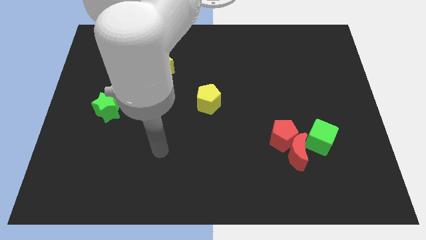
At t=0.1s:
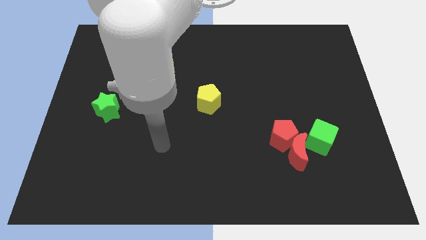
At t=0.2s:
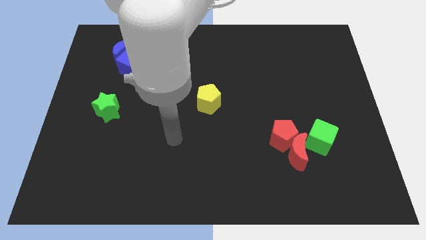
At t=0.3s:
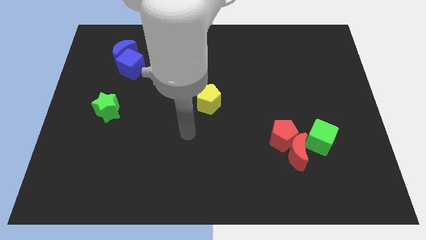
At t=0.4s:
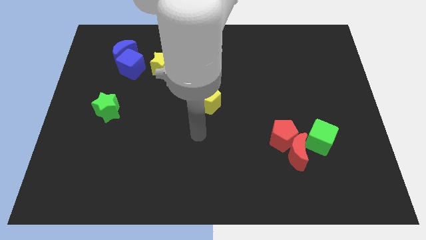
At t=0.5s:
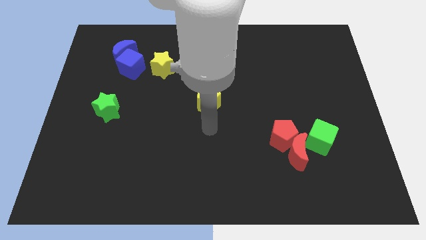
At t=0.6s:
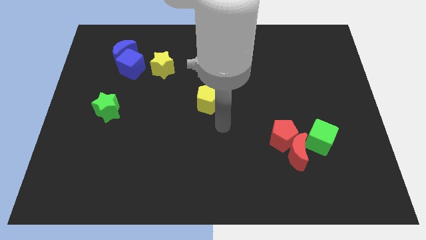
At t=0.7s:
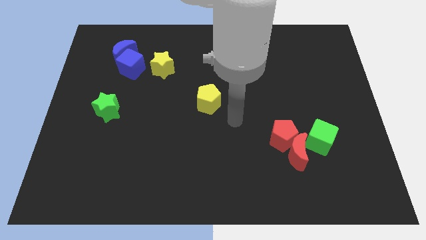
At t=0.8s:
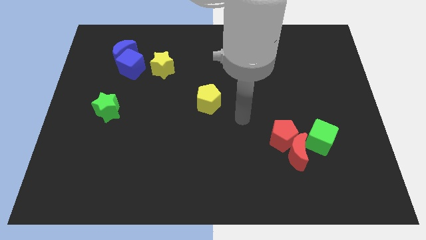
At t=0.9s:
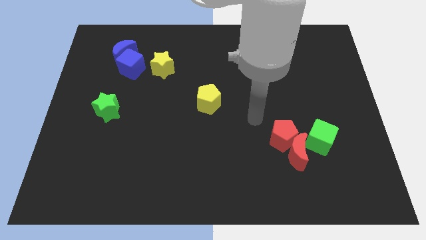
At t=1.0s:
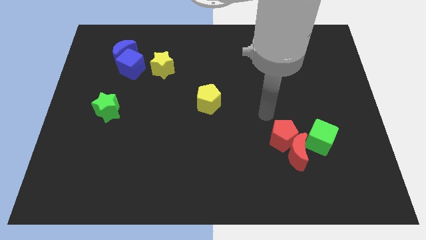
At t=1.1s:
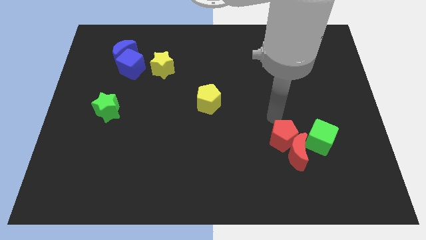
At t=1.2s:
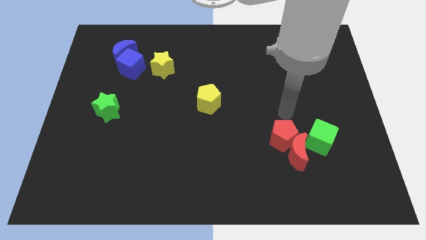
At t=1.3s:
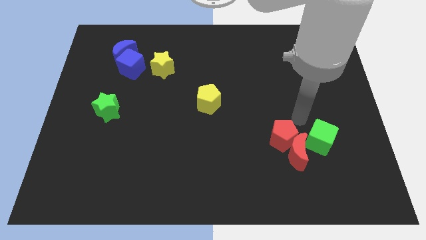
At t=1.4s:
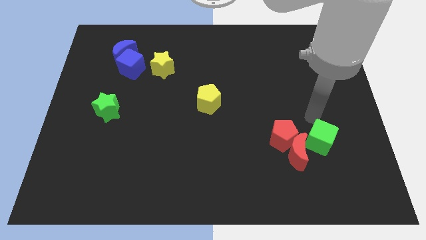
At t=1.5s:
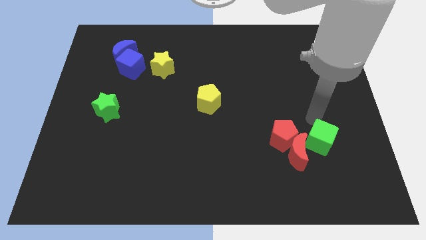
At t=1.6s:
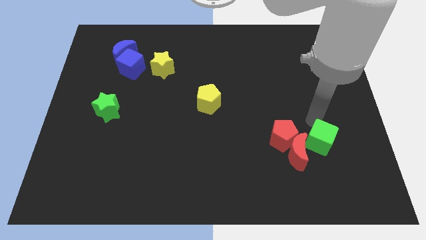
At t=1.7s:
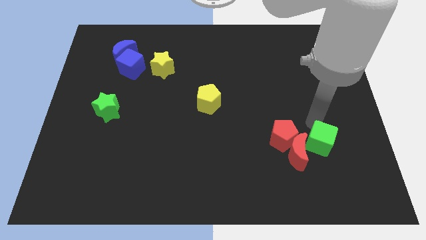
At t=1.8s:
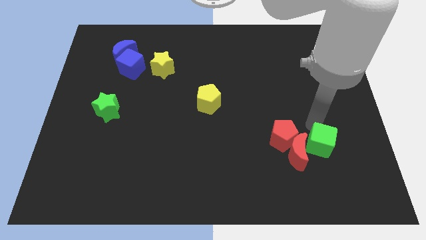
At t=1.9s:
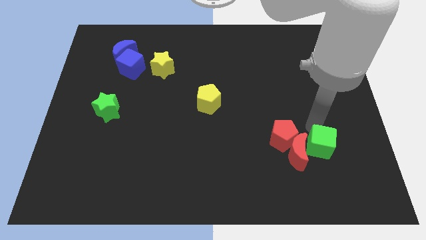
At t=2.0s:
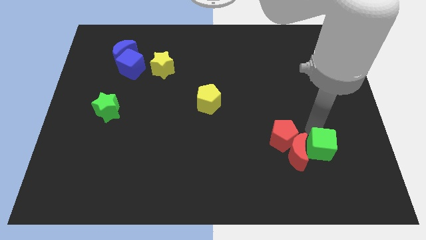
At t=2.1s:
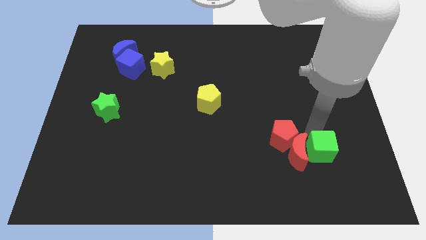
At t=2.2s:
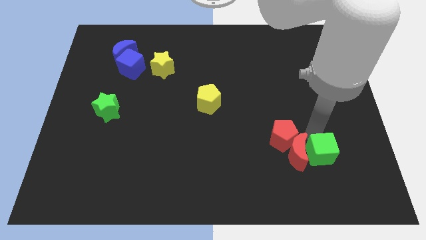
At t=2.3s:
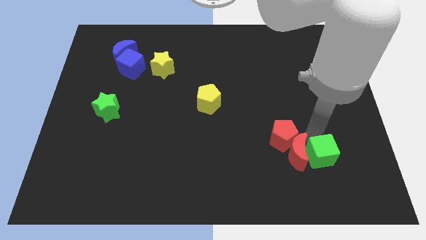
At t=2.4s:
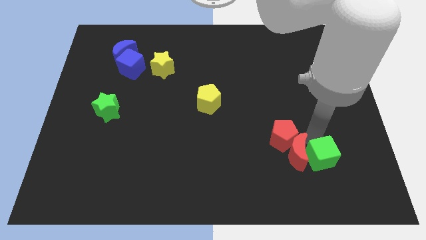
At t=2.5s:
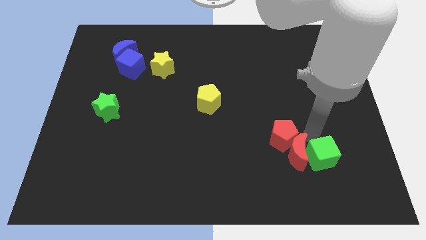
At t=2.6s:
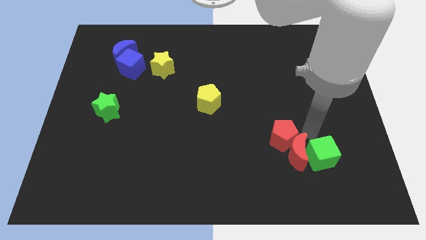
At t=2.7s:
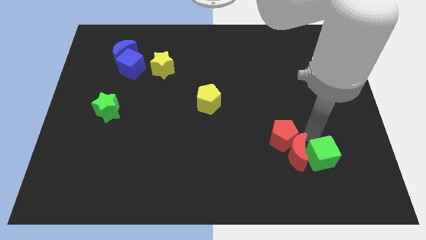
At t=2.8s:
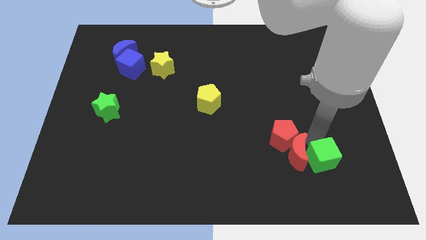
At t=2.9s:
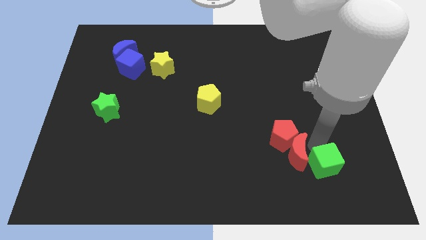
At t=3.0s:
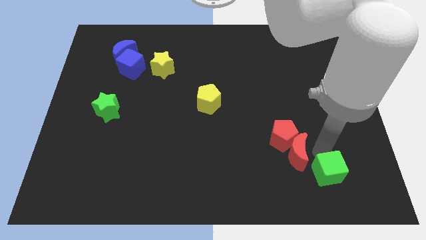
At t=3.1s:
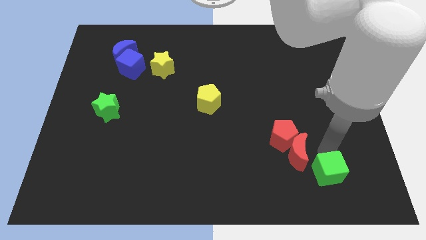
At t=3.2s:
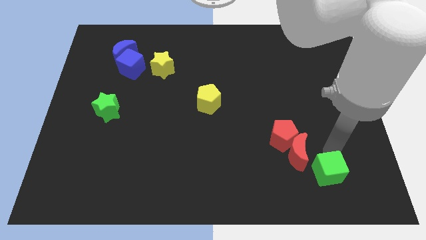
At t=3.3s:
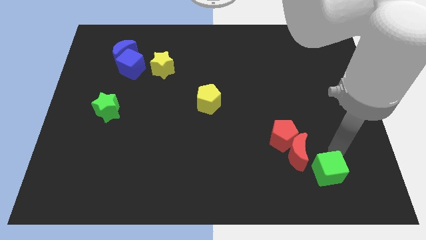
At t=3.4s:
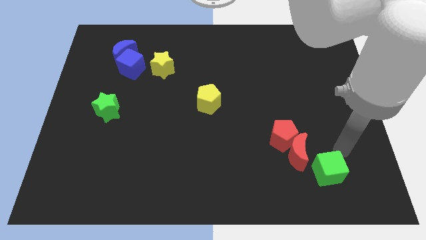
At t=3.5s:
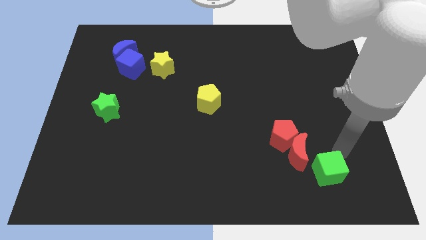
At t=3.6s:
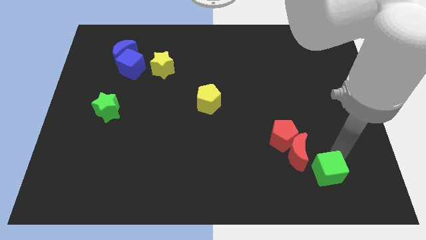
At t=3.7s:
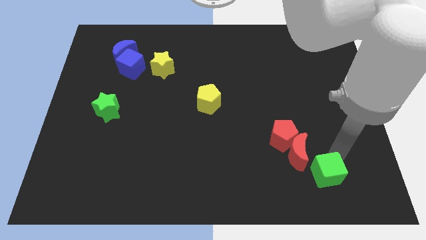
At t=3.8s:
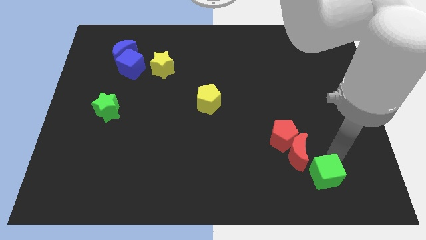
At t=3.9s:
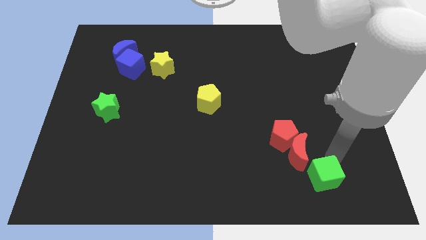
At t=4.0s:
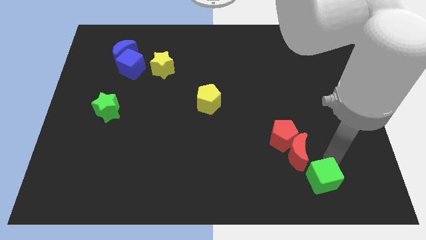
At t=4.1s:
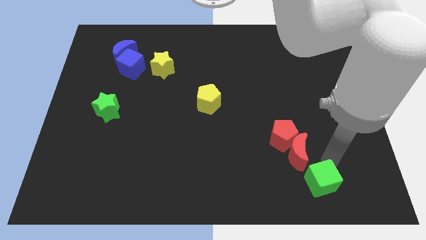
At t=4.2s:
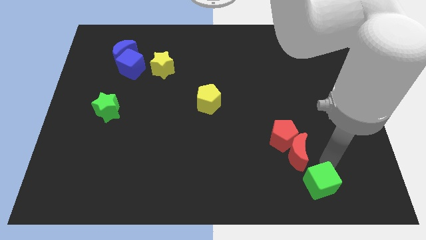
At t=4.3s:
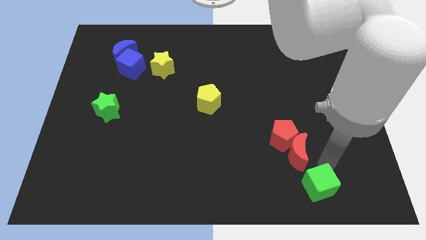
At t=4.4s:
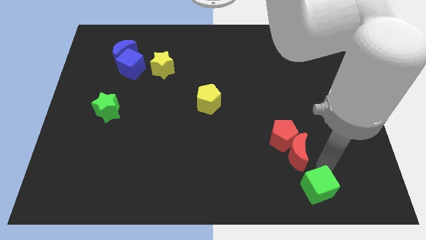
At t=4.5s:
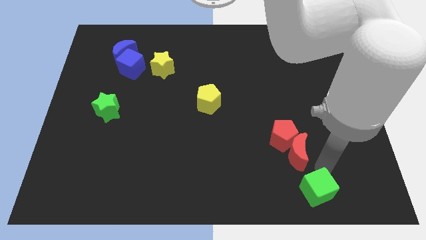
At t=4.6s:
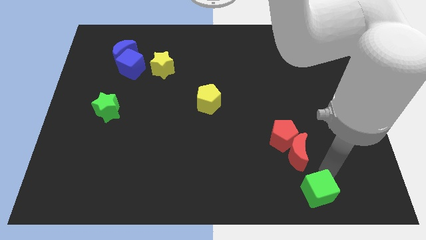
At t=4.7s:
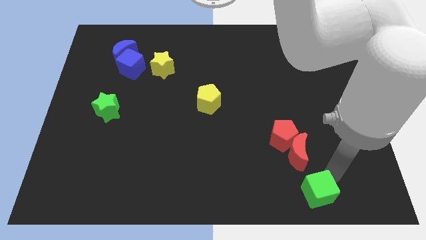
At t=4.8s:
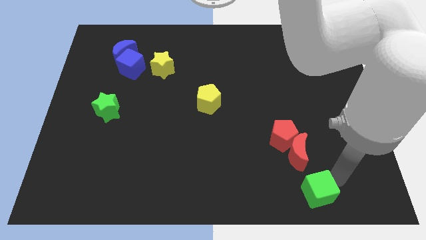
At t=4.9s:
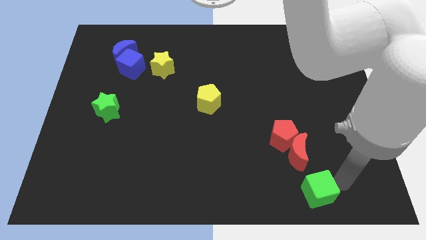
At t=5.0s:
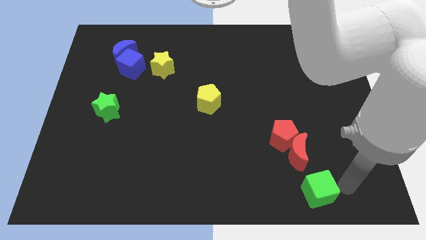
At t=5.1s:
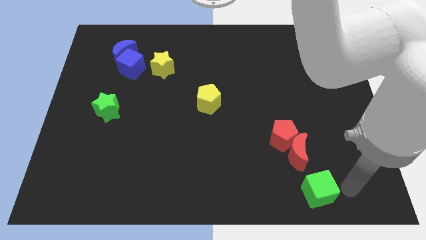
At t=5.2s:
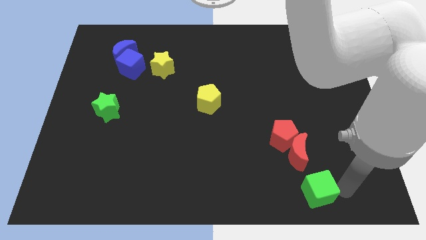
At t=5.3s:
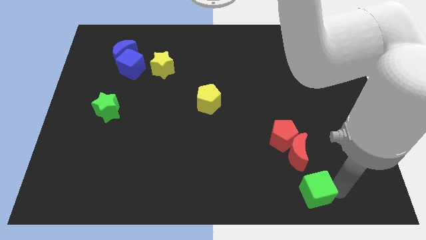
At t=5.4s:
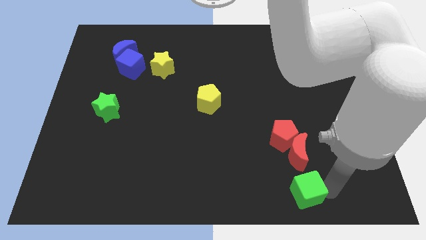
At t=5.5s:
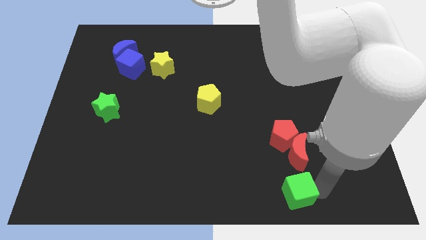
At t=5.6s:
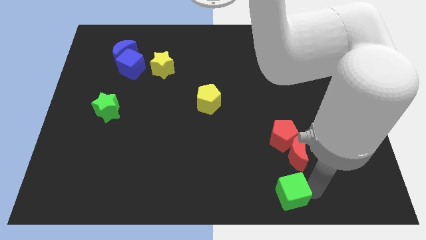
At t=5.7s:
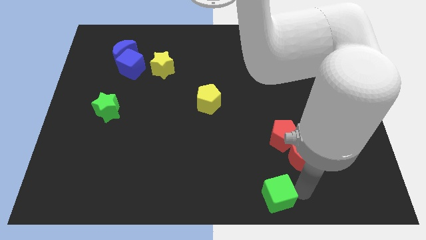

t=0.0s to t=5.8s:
put the green cube to the bottom side

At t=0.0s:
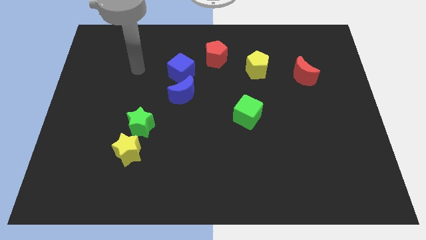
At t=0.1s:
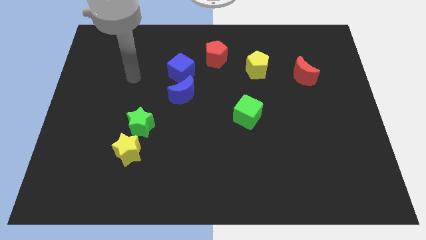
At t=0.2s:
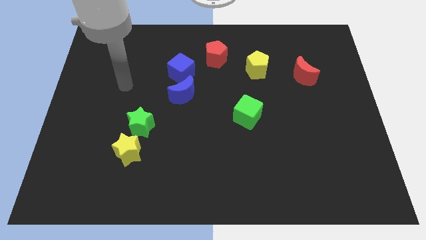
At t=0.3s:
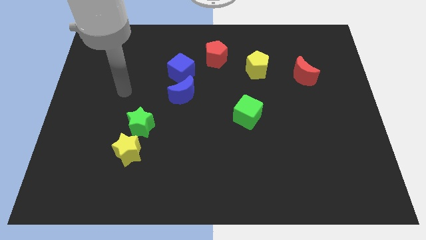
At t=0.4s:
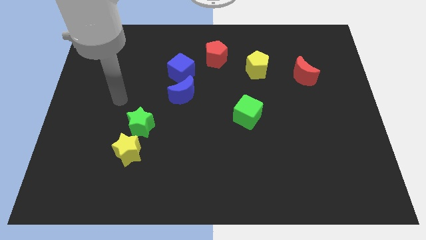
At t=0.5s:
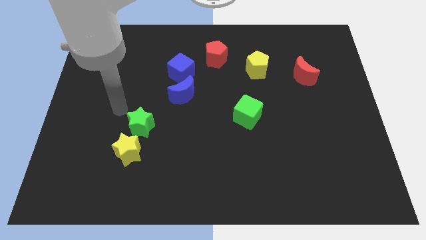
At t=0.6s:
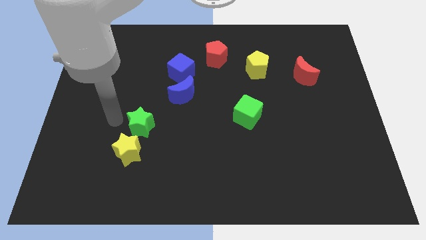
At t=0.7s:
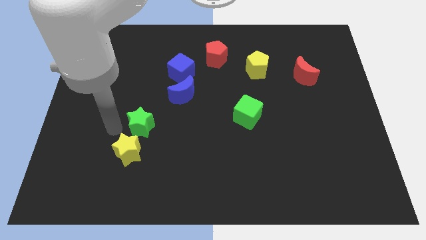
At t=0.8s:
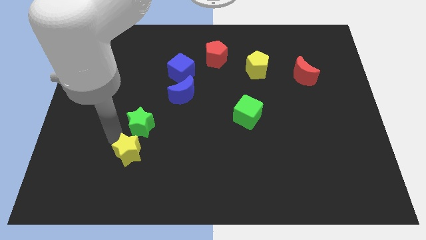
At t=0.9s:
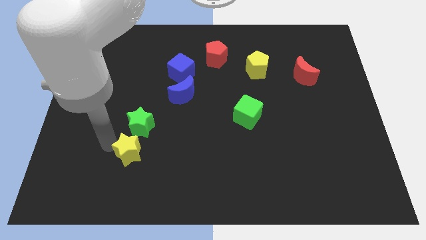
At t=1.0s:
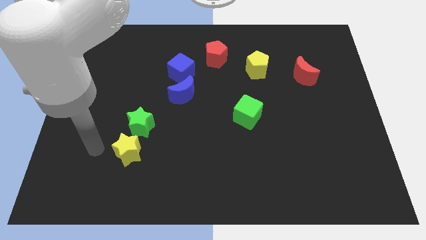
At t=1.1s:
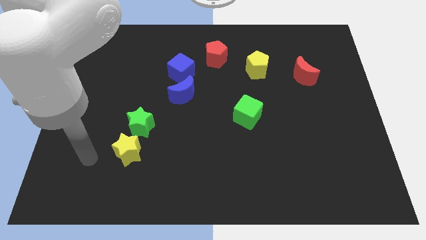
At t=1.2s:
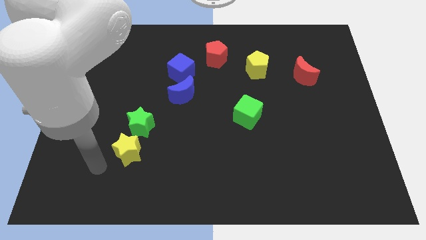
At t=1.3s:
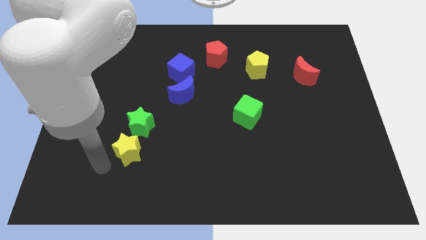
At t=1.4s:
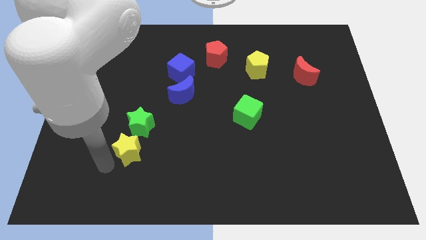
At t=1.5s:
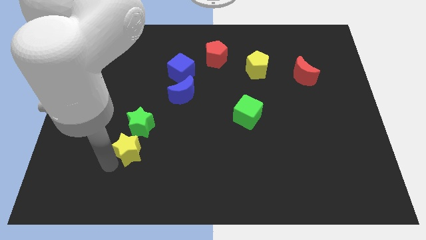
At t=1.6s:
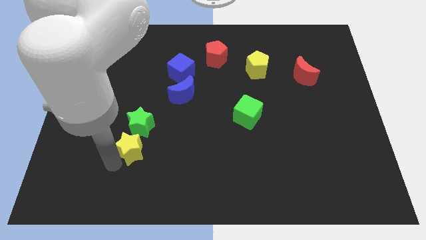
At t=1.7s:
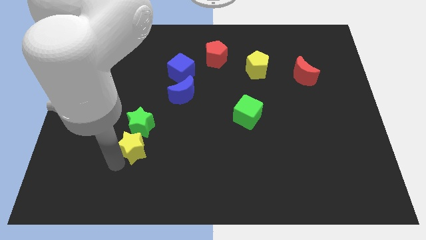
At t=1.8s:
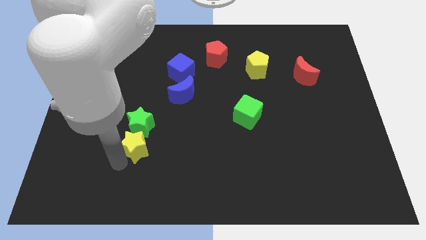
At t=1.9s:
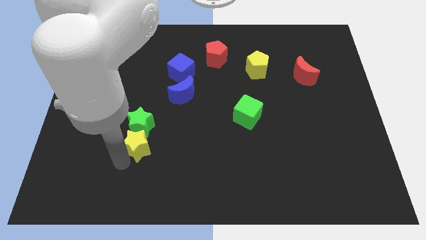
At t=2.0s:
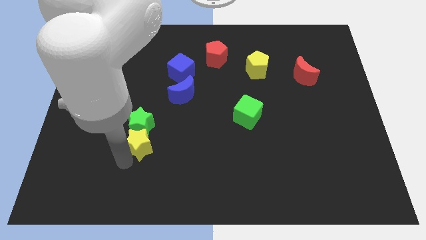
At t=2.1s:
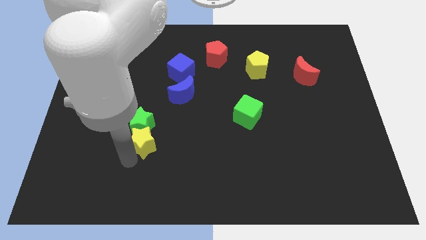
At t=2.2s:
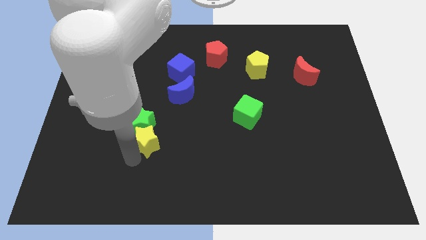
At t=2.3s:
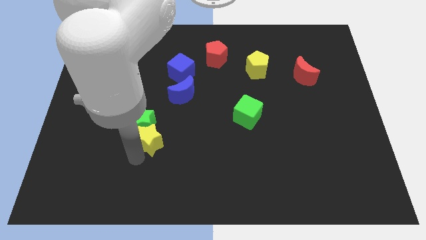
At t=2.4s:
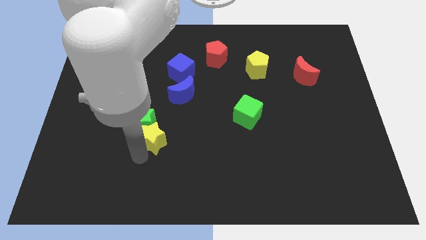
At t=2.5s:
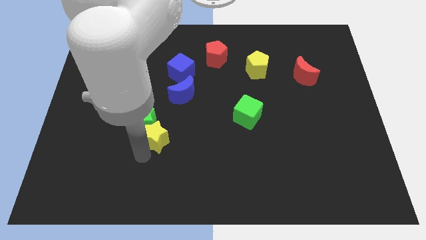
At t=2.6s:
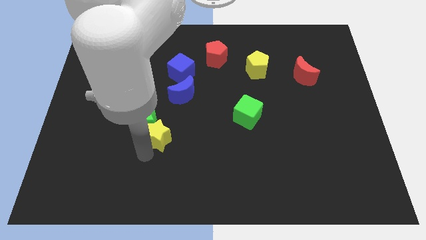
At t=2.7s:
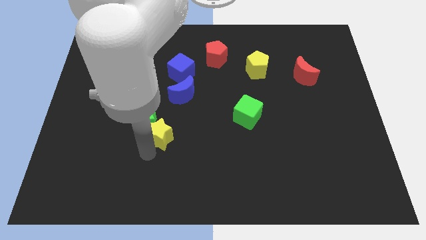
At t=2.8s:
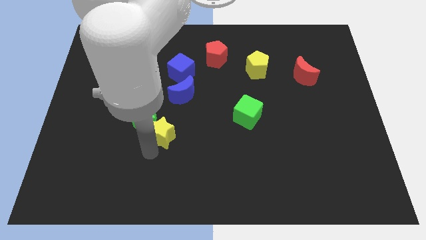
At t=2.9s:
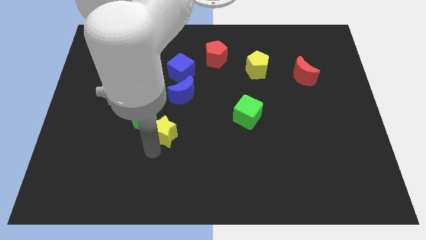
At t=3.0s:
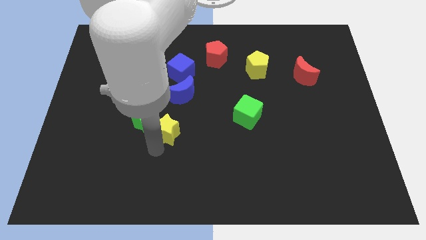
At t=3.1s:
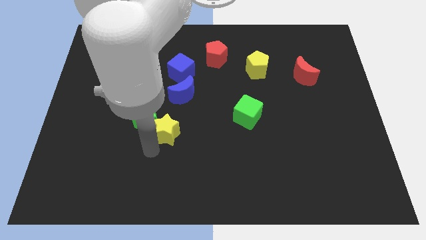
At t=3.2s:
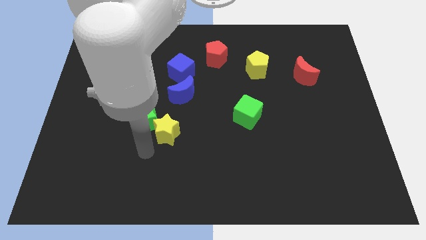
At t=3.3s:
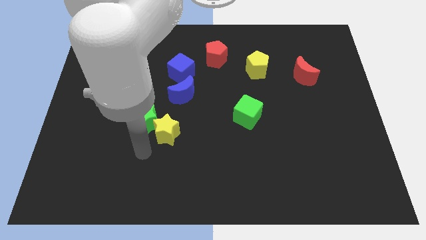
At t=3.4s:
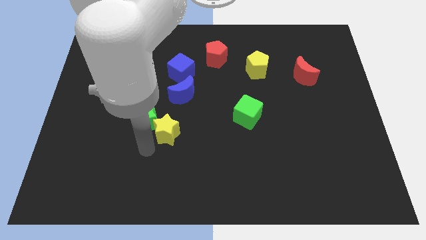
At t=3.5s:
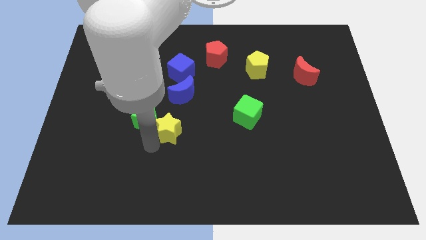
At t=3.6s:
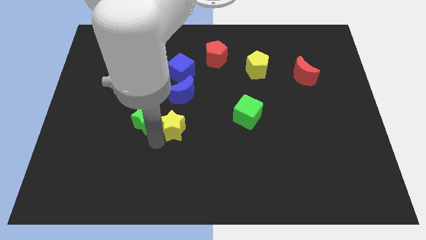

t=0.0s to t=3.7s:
move the yellow star to the middle
